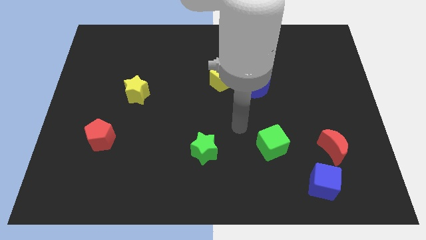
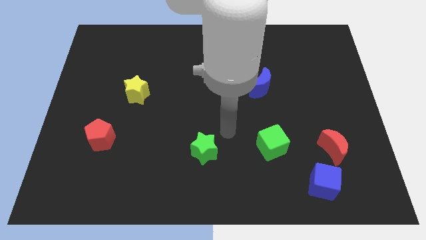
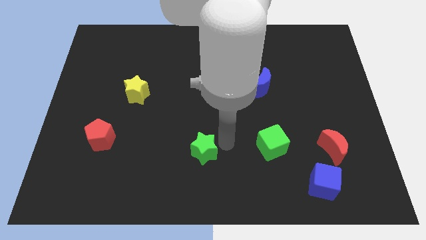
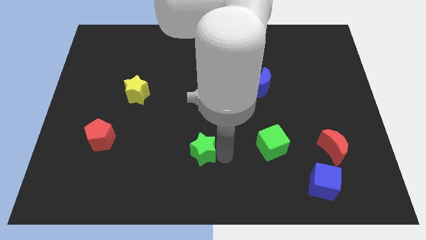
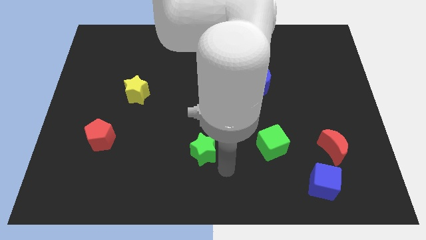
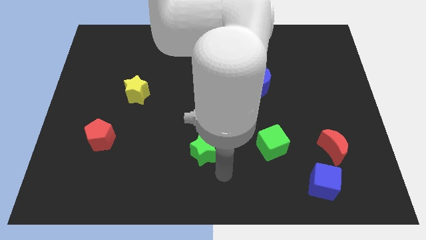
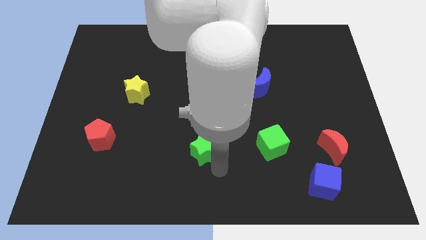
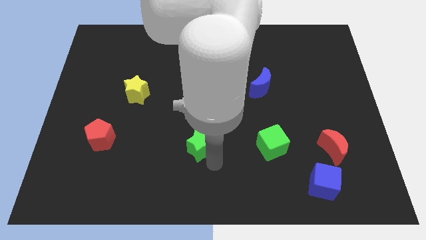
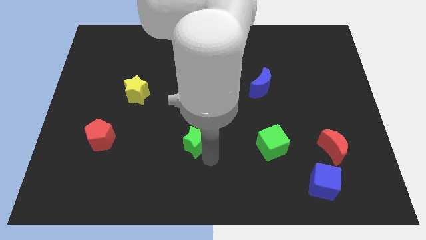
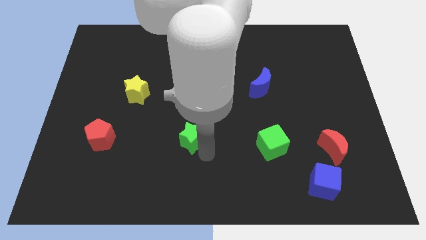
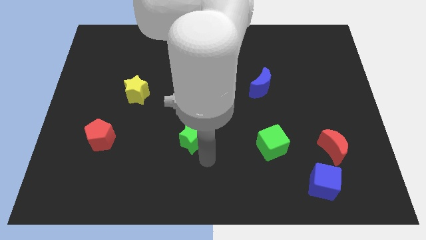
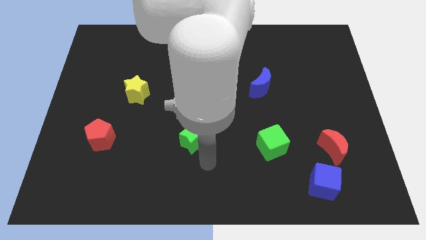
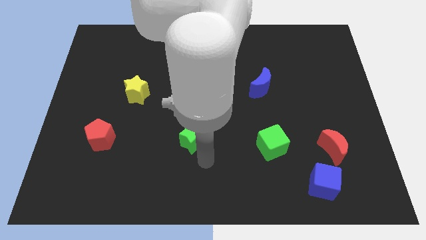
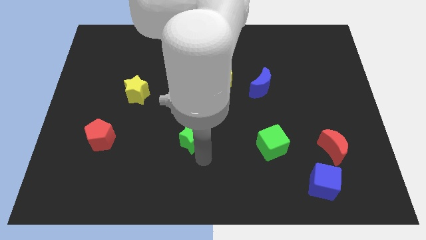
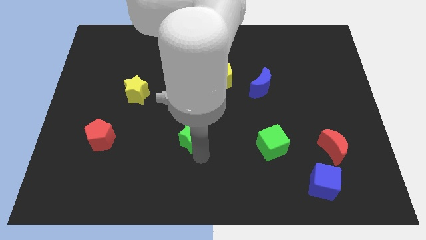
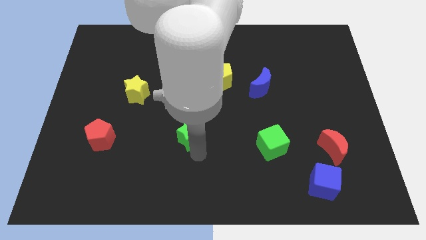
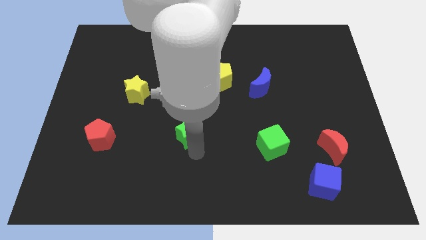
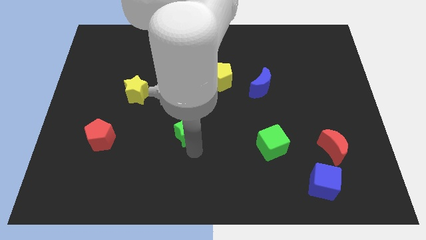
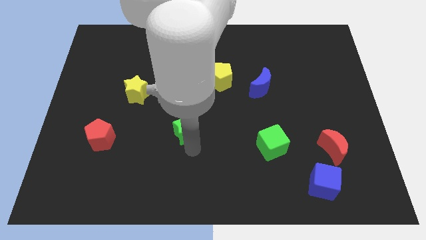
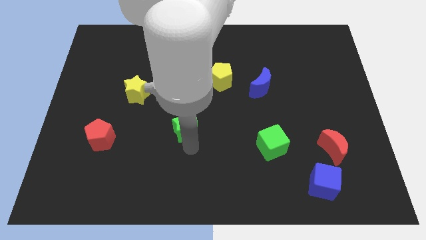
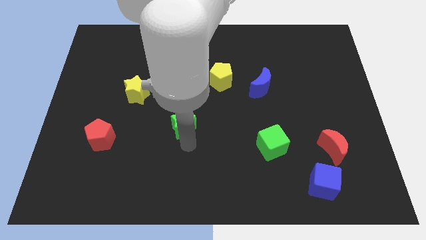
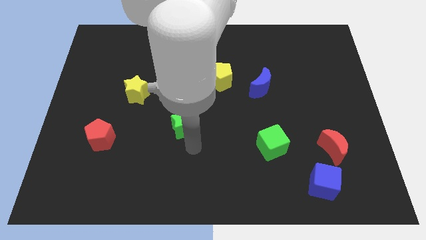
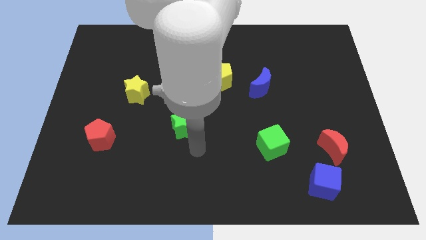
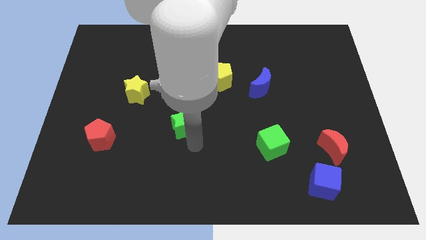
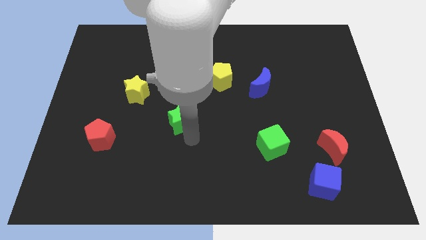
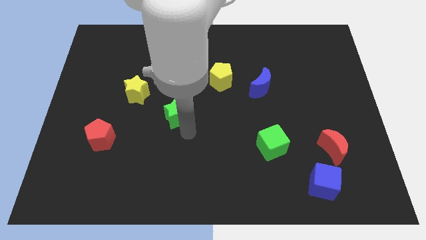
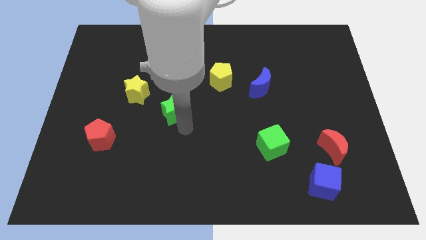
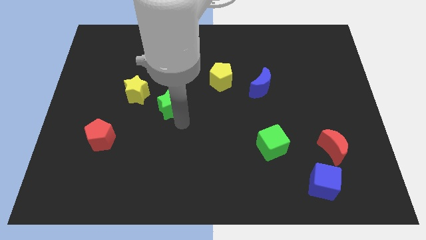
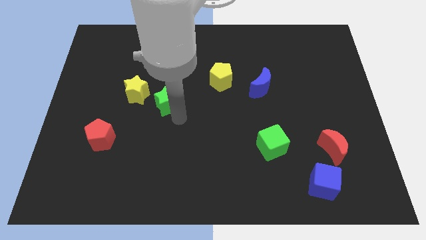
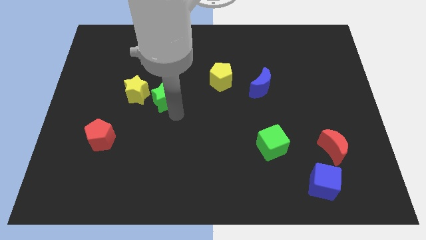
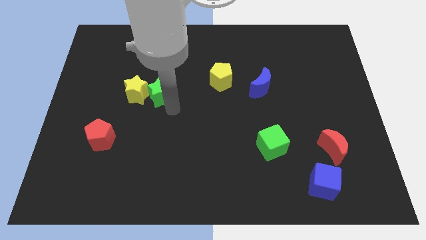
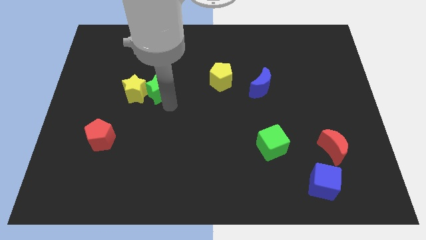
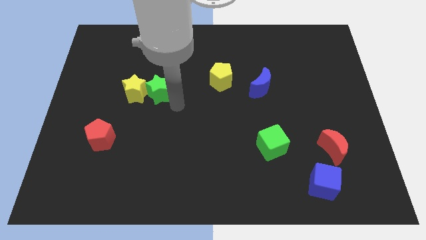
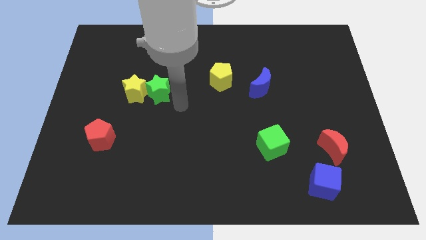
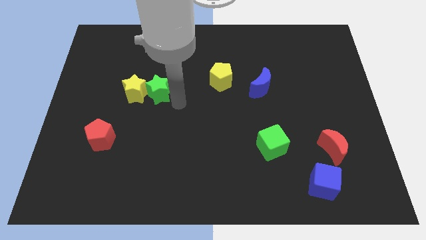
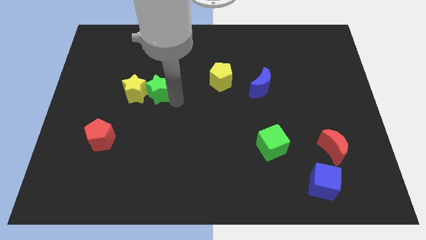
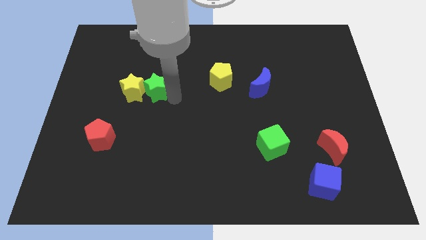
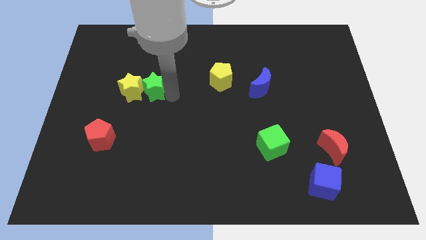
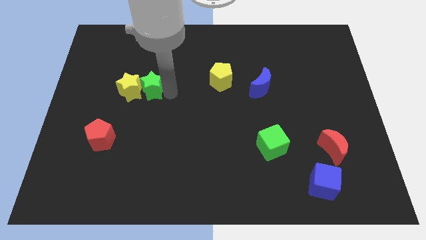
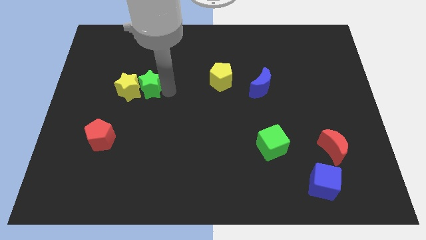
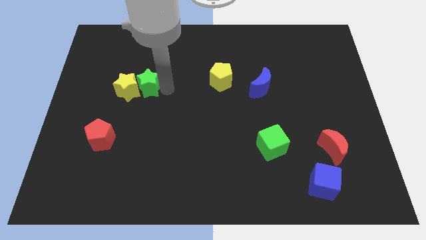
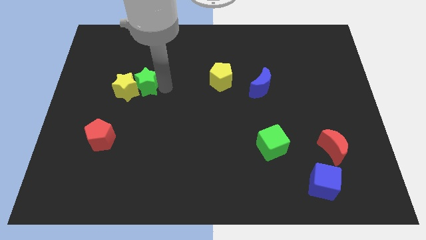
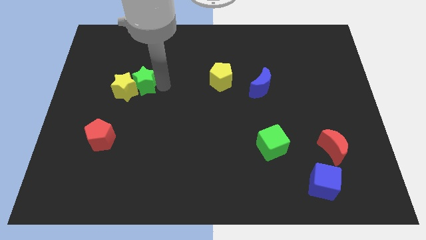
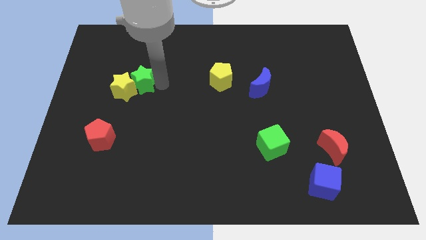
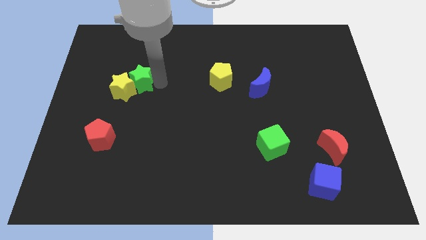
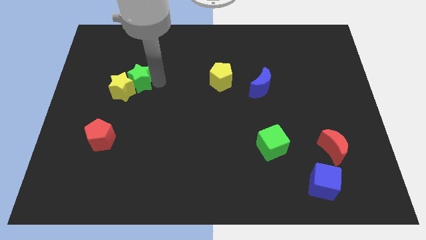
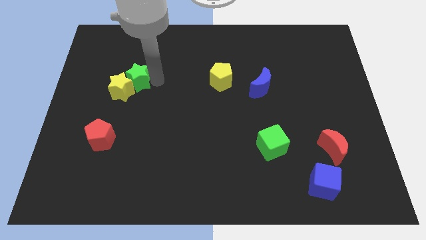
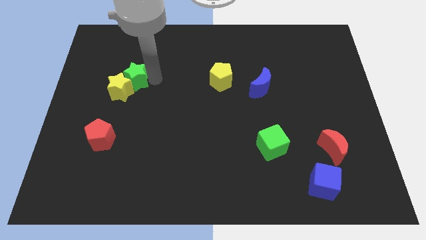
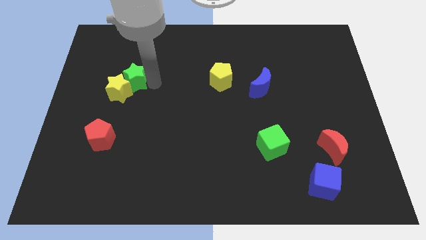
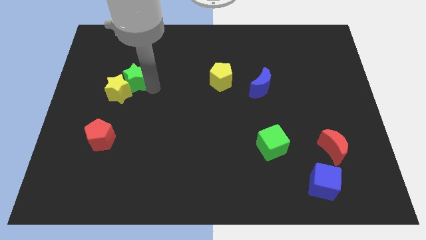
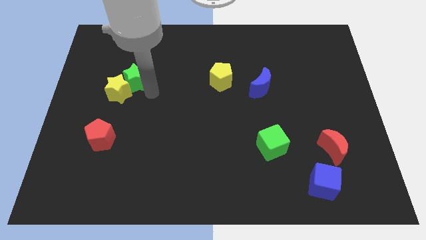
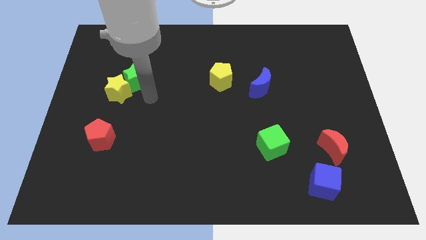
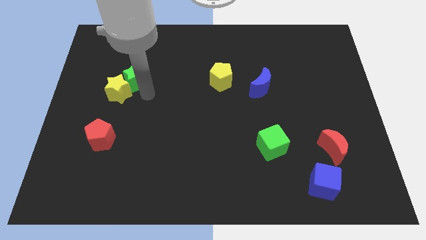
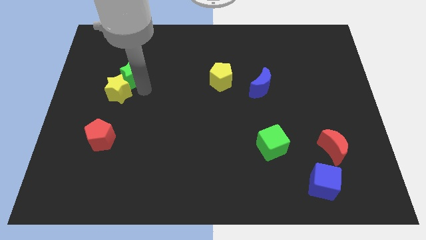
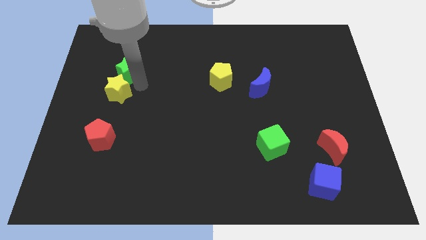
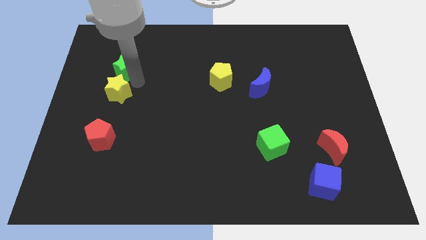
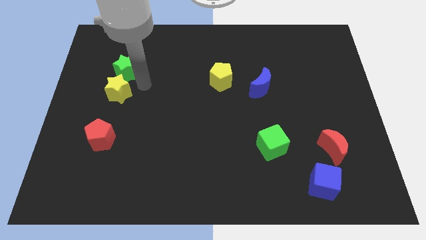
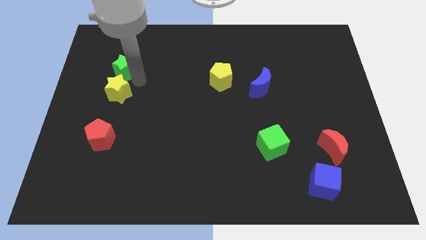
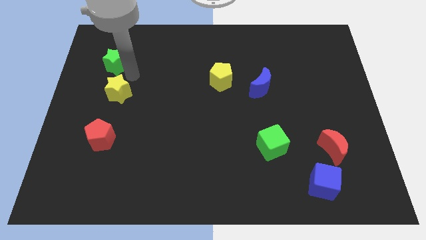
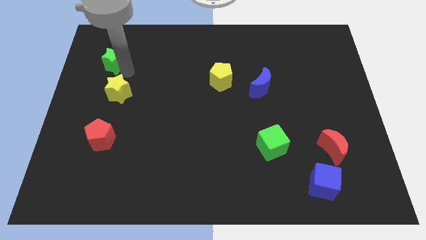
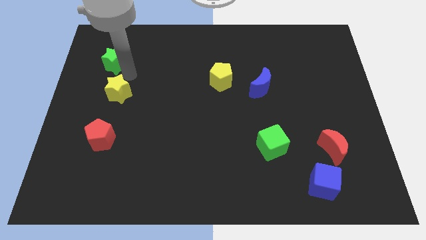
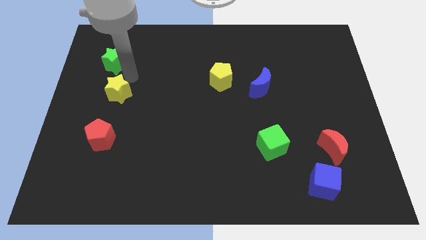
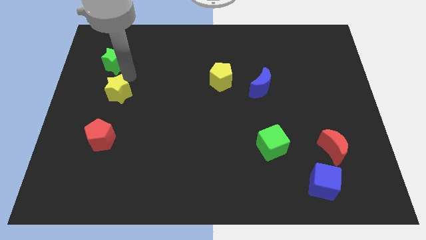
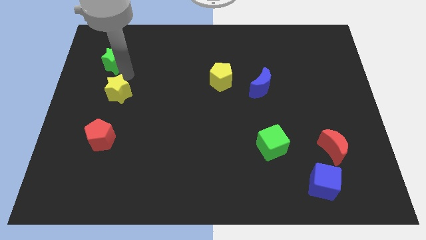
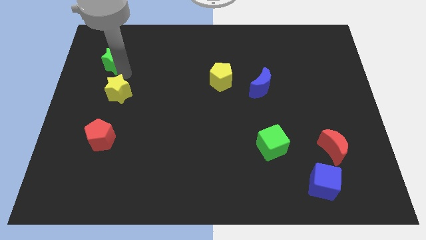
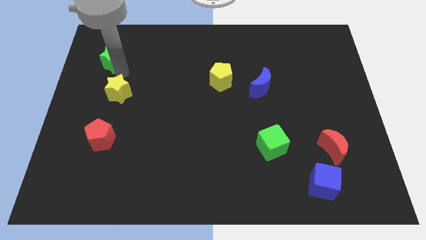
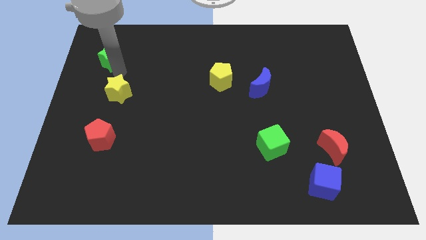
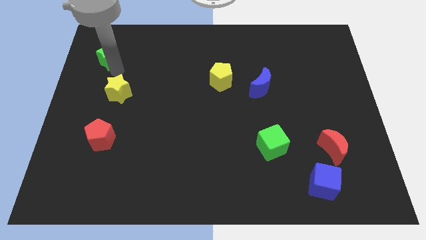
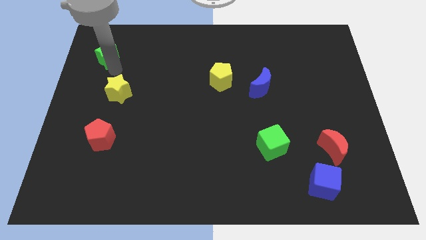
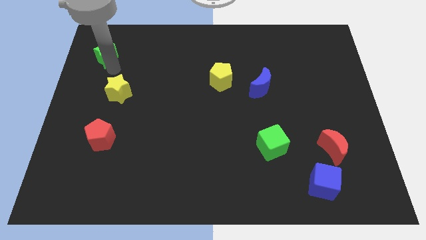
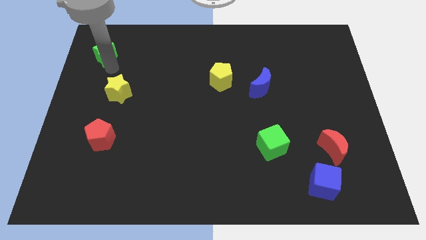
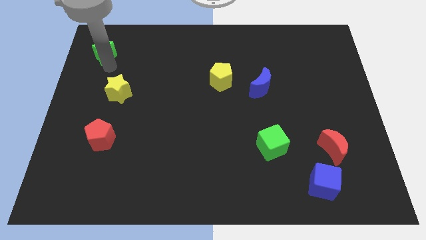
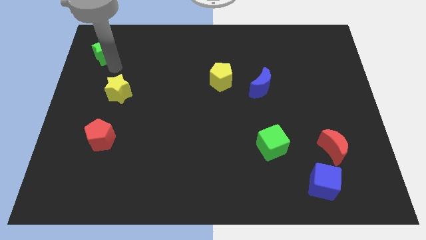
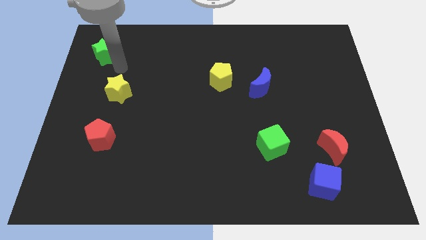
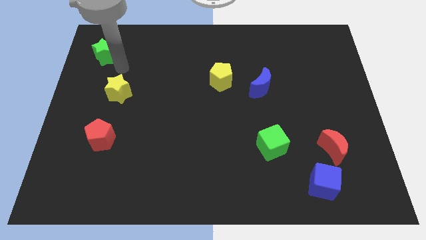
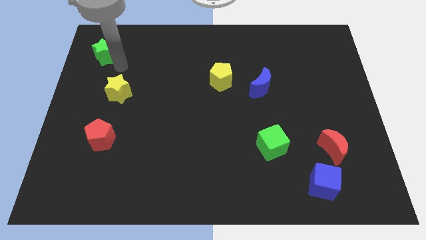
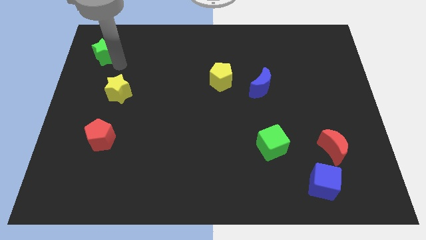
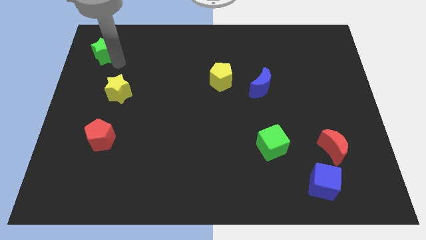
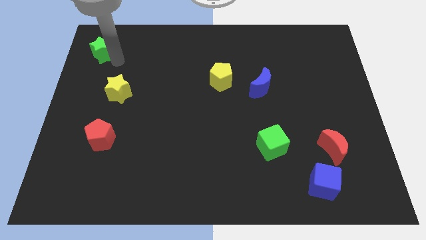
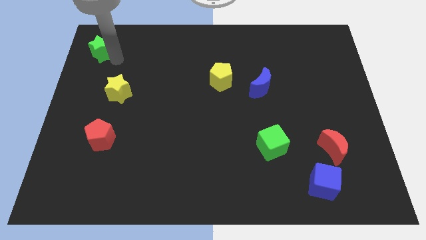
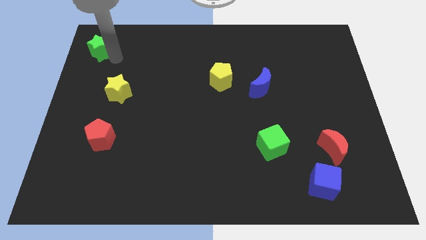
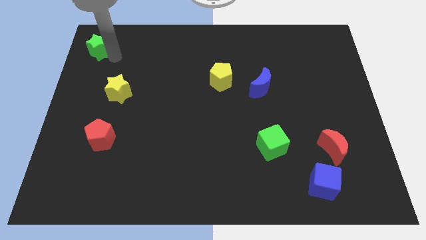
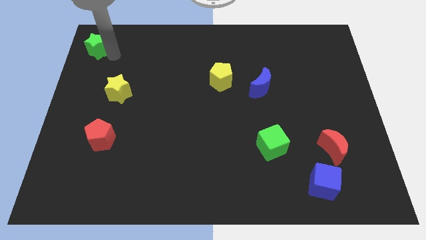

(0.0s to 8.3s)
push the green star to the upper left corner
